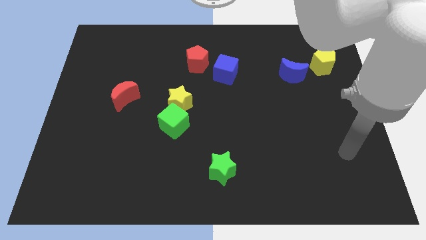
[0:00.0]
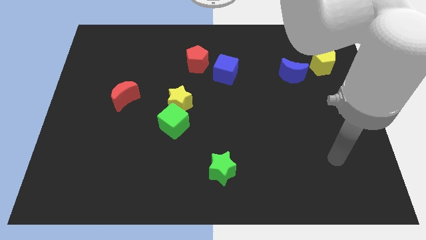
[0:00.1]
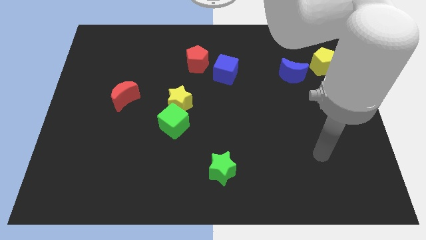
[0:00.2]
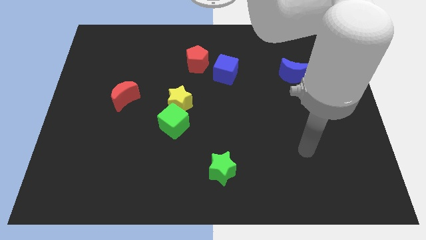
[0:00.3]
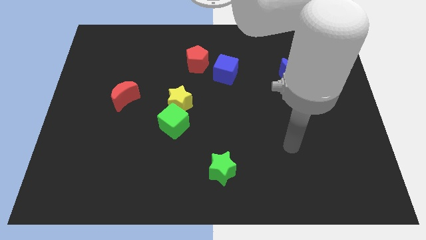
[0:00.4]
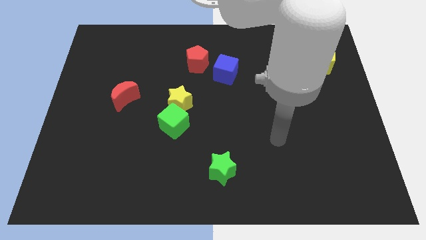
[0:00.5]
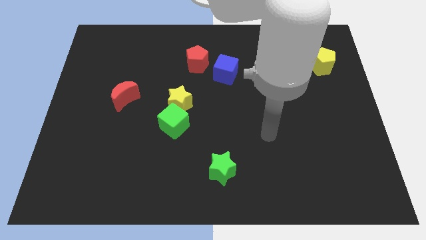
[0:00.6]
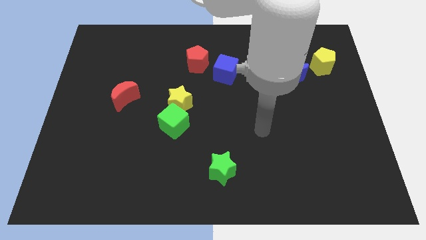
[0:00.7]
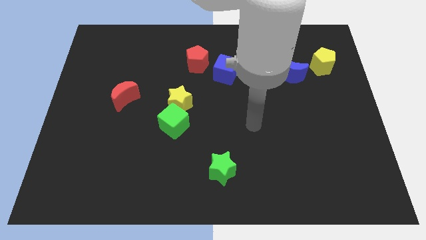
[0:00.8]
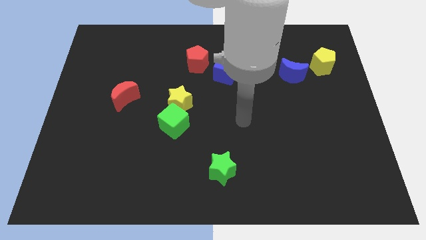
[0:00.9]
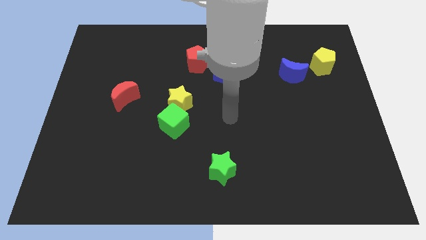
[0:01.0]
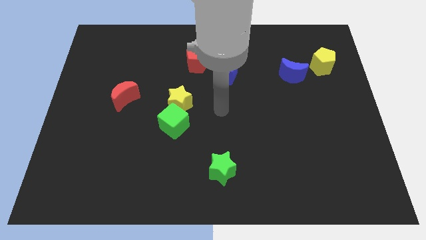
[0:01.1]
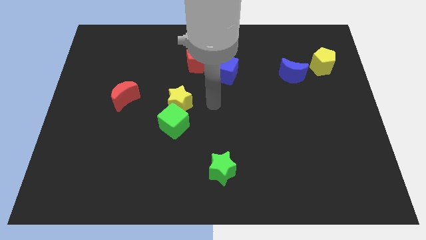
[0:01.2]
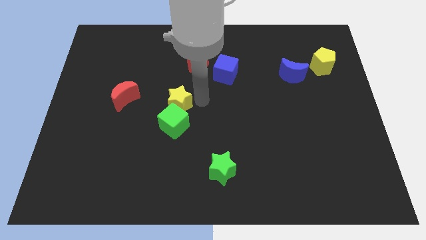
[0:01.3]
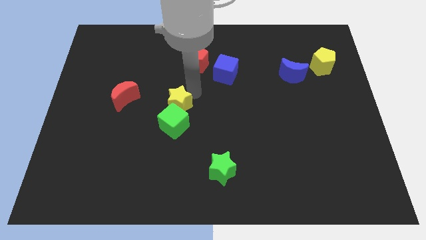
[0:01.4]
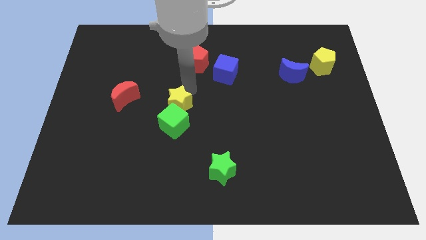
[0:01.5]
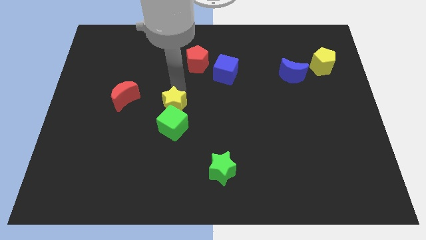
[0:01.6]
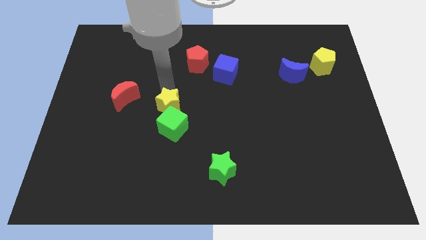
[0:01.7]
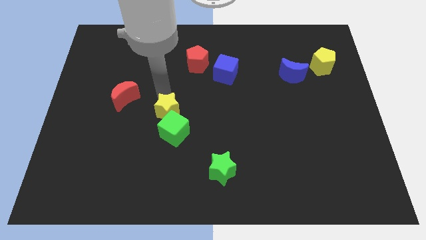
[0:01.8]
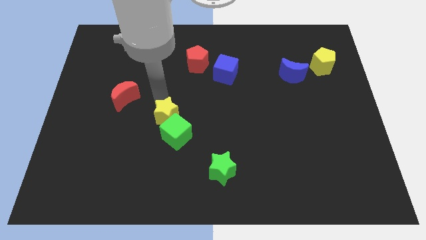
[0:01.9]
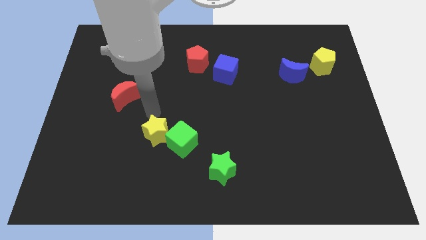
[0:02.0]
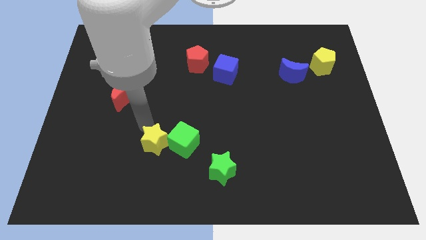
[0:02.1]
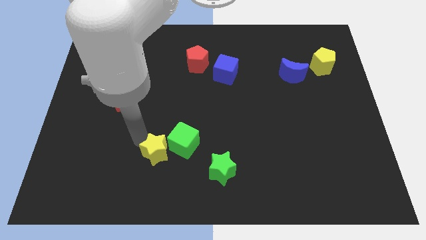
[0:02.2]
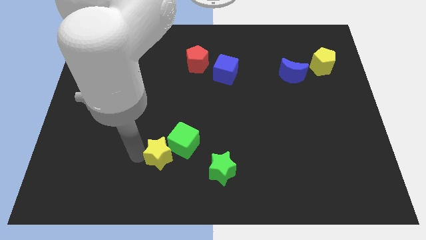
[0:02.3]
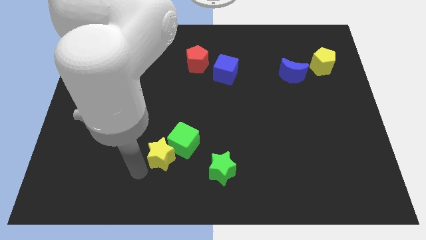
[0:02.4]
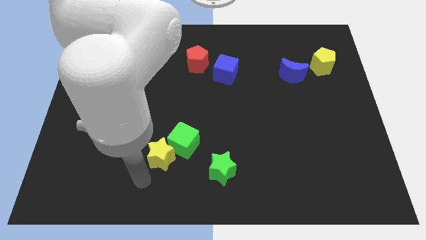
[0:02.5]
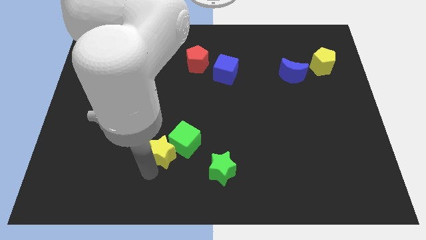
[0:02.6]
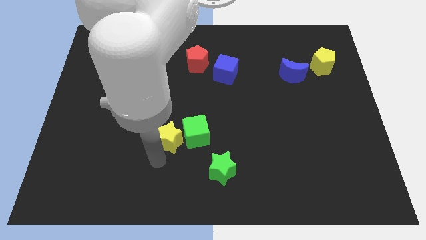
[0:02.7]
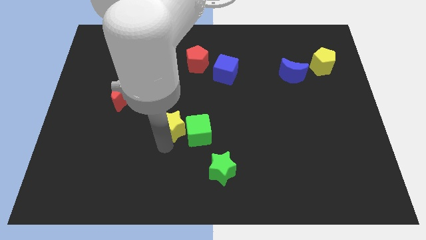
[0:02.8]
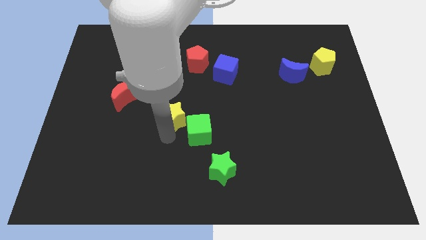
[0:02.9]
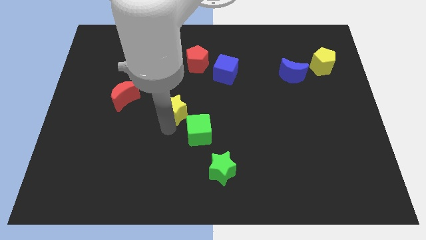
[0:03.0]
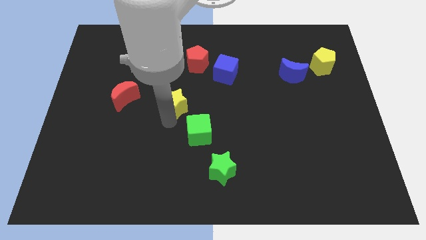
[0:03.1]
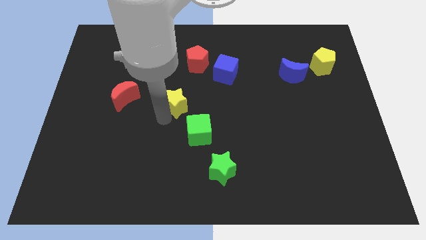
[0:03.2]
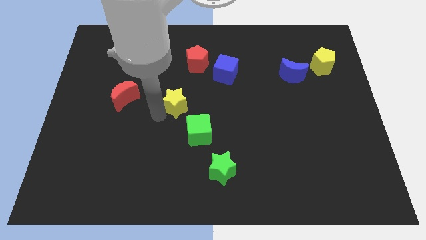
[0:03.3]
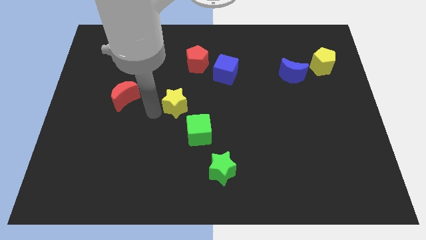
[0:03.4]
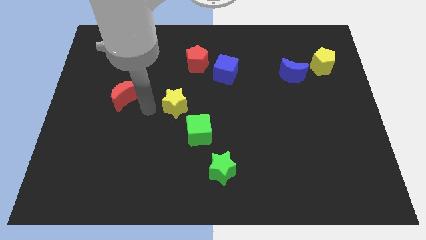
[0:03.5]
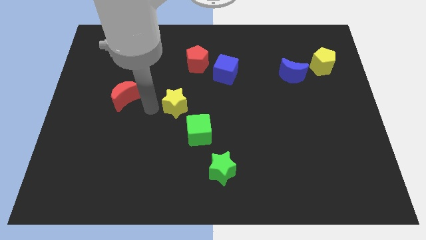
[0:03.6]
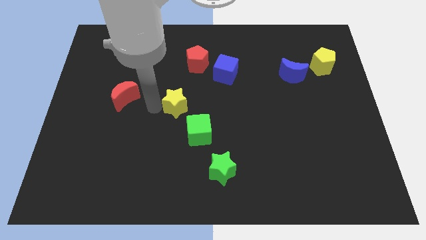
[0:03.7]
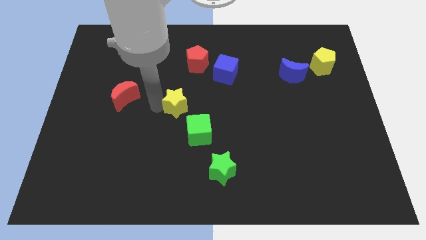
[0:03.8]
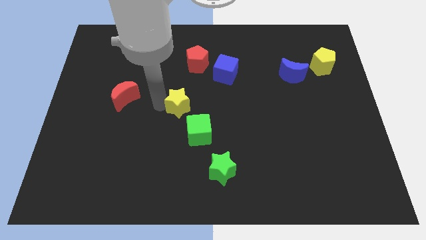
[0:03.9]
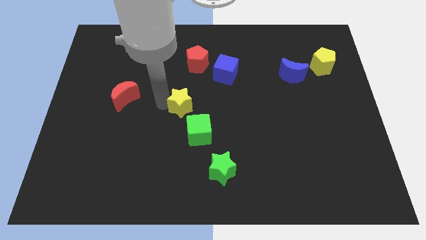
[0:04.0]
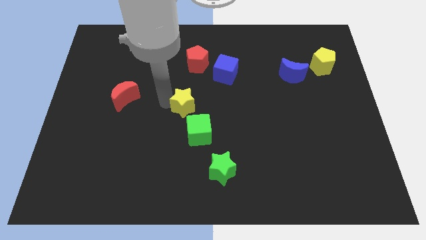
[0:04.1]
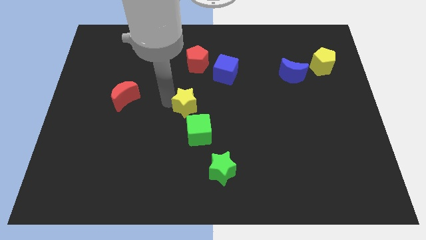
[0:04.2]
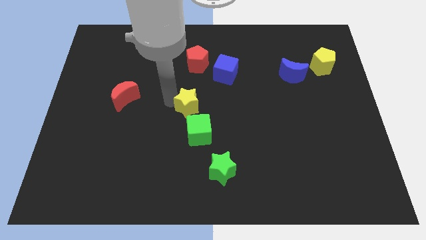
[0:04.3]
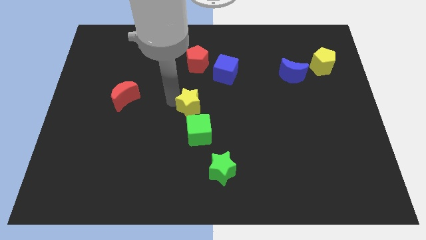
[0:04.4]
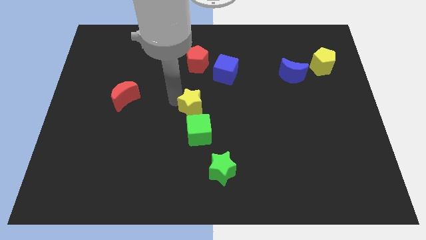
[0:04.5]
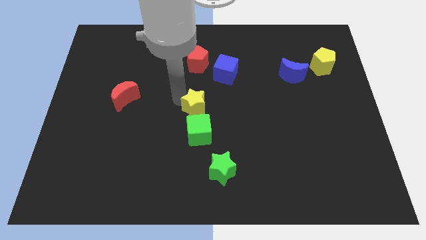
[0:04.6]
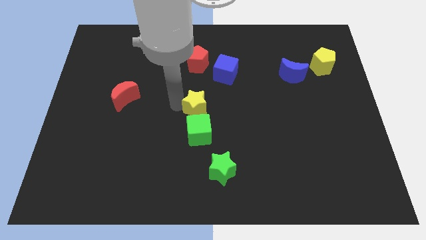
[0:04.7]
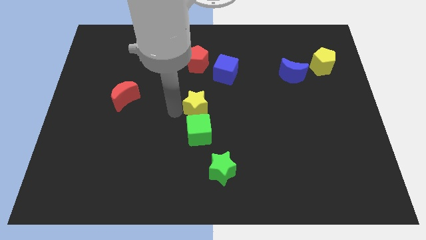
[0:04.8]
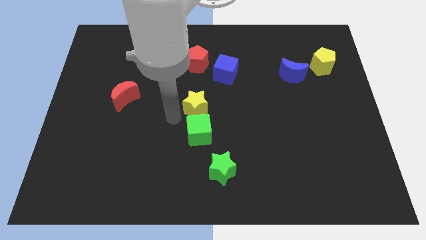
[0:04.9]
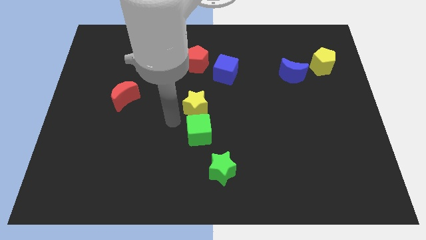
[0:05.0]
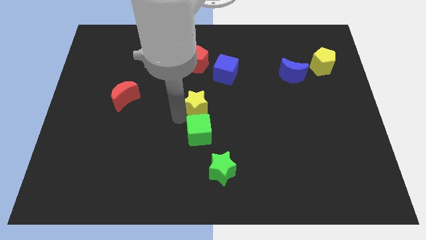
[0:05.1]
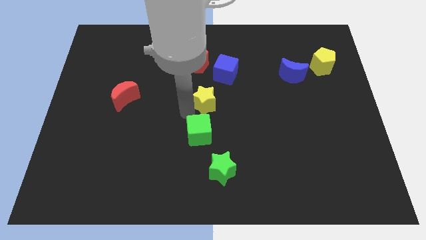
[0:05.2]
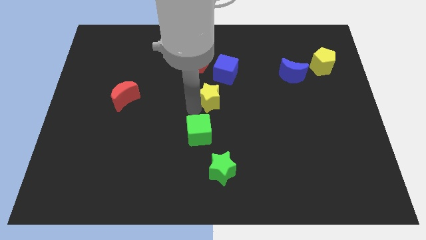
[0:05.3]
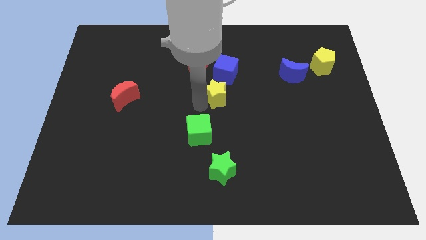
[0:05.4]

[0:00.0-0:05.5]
slide the yellow star a little upwards and then right

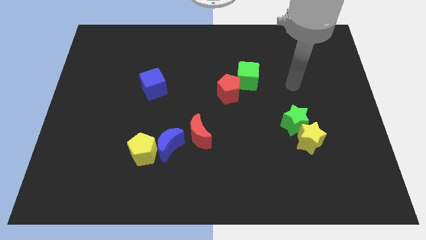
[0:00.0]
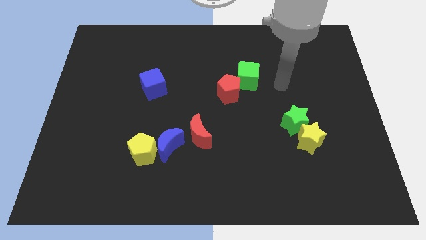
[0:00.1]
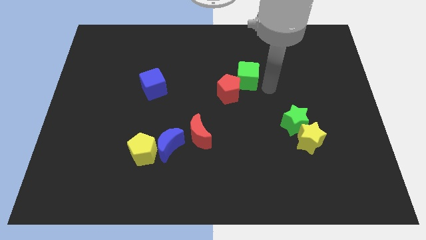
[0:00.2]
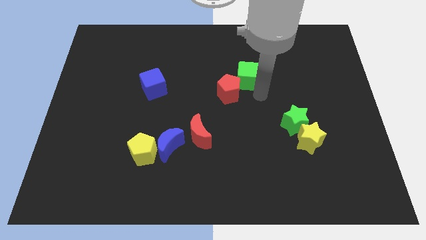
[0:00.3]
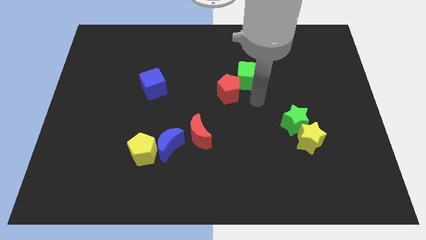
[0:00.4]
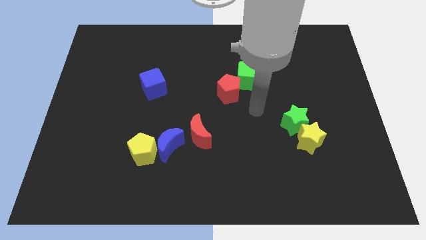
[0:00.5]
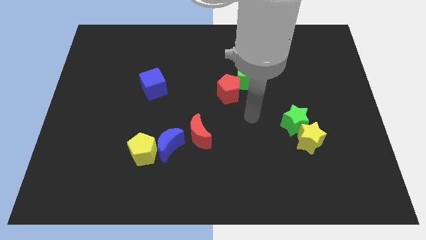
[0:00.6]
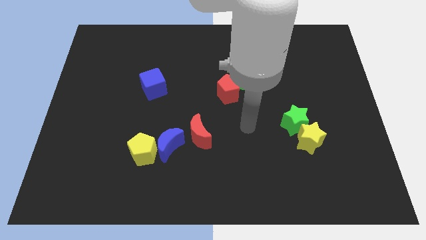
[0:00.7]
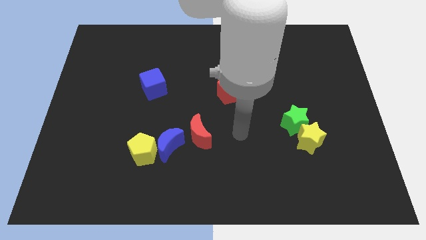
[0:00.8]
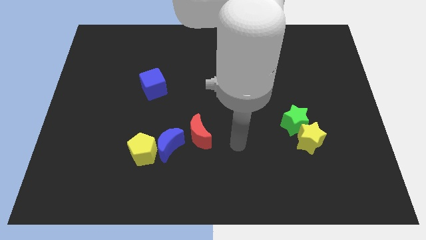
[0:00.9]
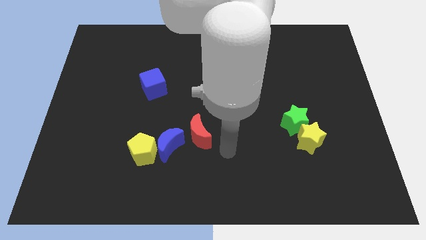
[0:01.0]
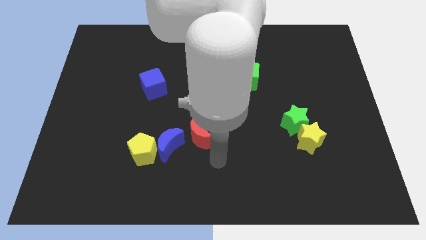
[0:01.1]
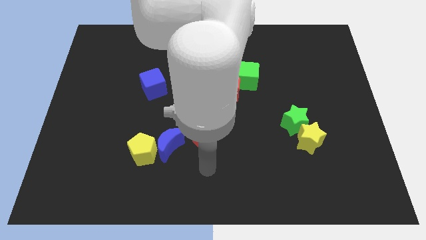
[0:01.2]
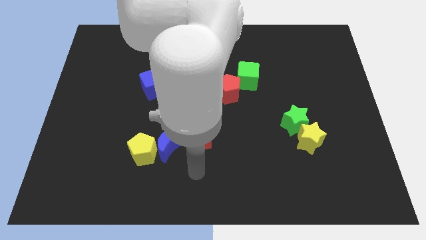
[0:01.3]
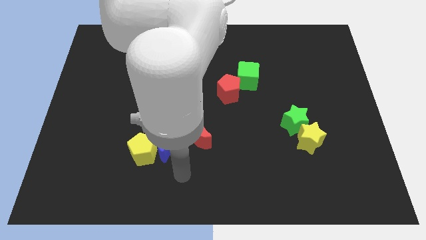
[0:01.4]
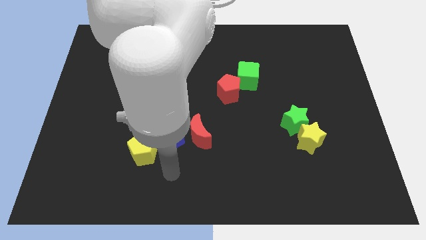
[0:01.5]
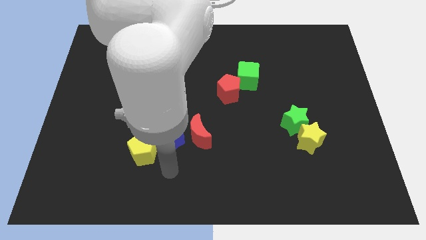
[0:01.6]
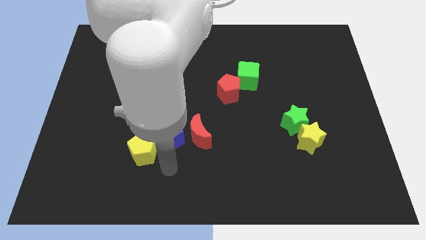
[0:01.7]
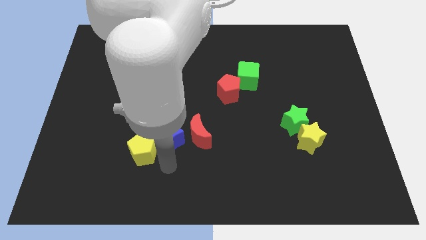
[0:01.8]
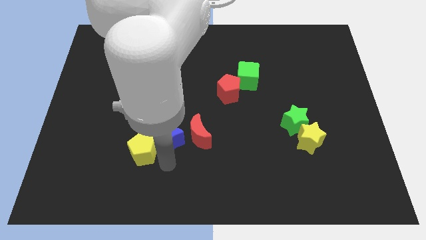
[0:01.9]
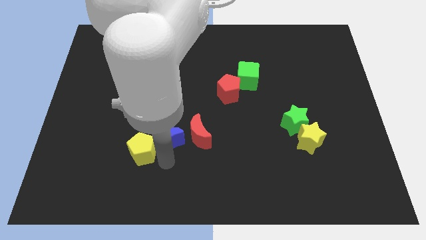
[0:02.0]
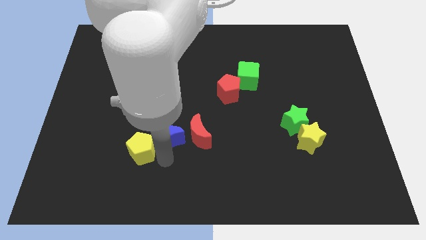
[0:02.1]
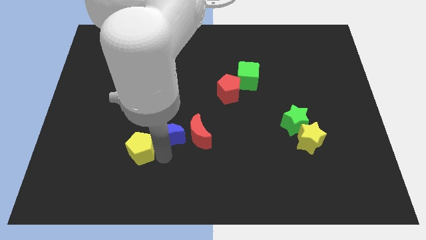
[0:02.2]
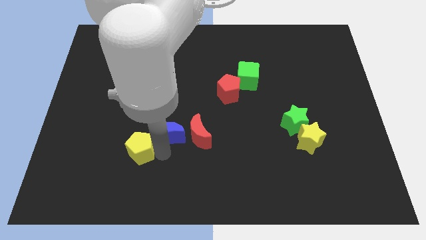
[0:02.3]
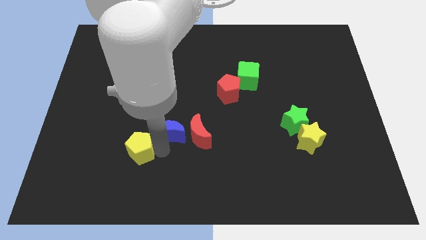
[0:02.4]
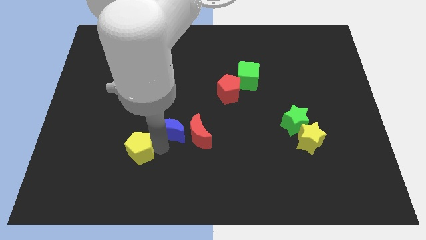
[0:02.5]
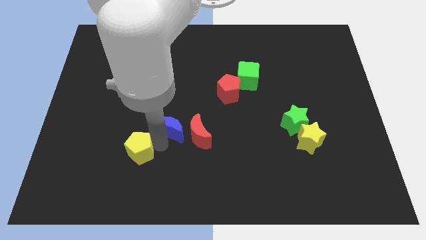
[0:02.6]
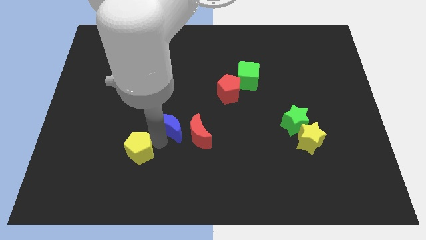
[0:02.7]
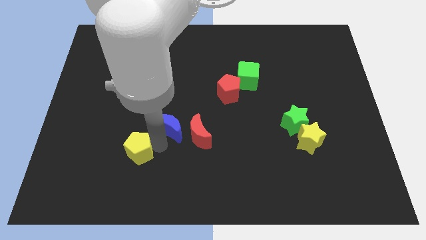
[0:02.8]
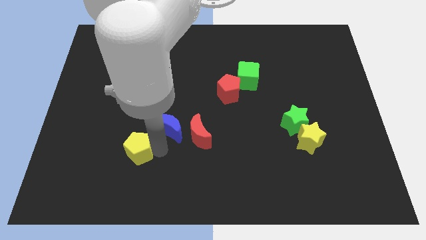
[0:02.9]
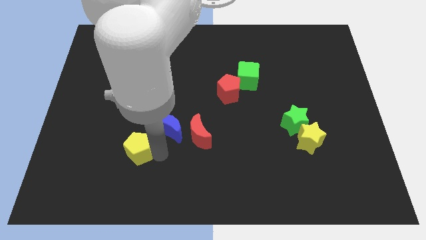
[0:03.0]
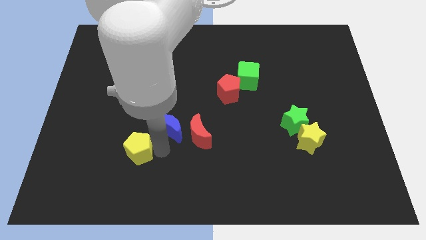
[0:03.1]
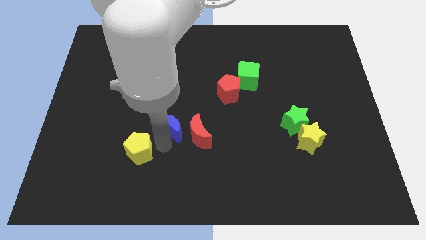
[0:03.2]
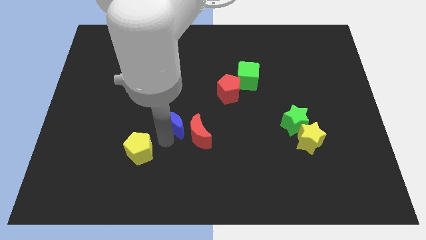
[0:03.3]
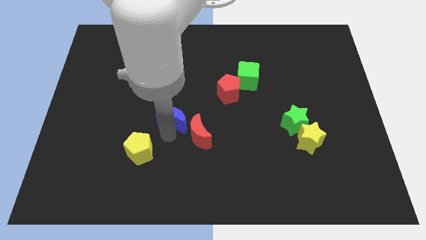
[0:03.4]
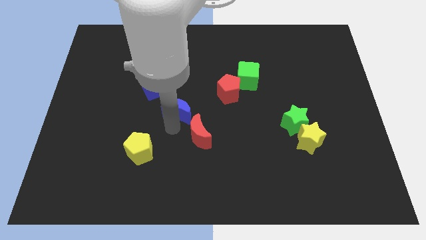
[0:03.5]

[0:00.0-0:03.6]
slightly slide the blue moon up
